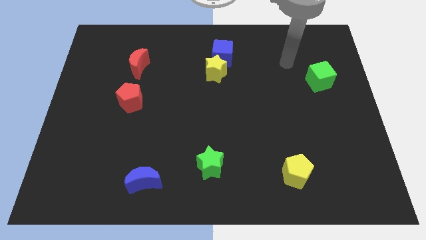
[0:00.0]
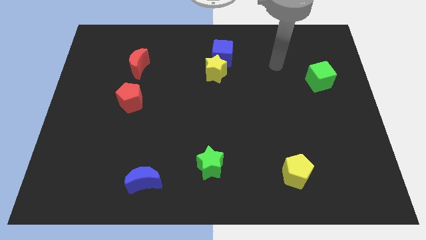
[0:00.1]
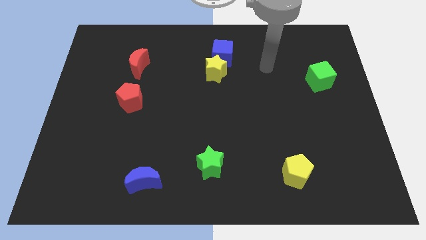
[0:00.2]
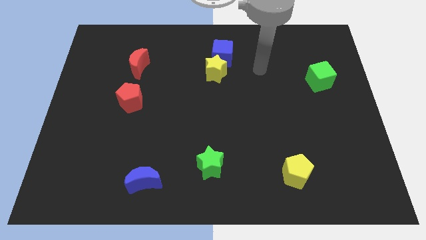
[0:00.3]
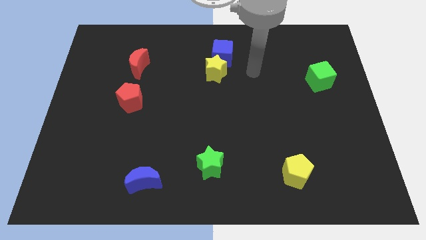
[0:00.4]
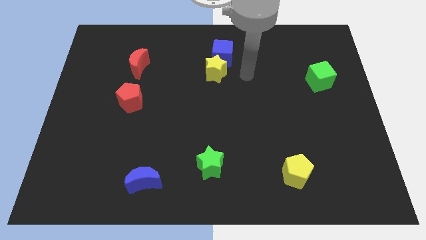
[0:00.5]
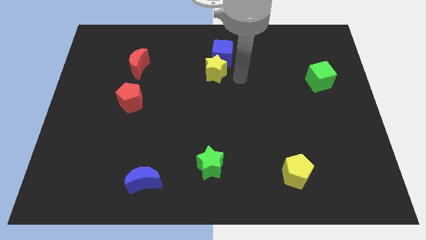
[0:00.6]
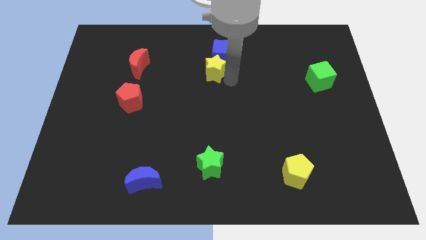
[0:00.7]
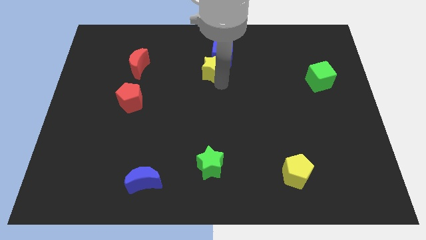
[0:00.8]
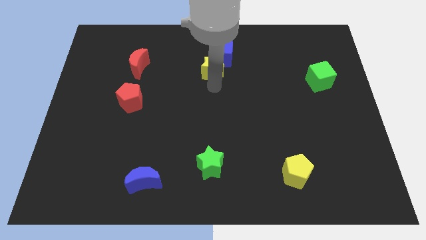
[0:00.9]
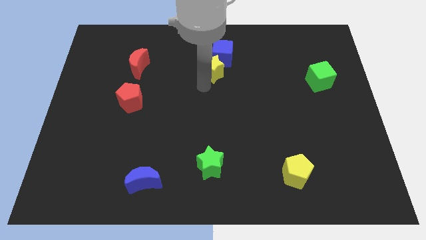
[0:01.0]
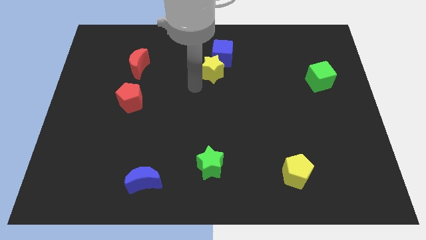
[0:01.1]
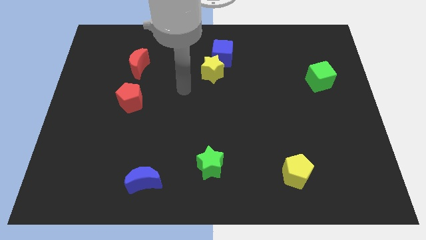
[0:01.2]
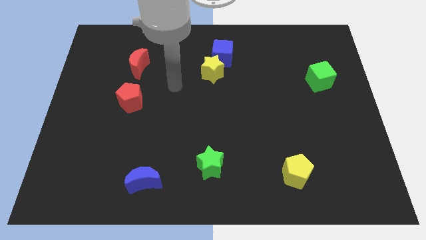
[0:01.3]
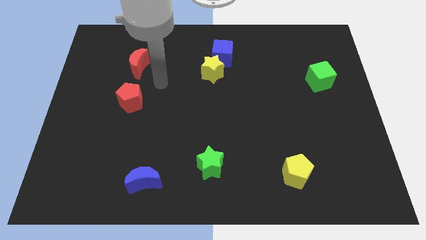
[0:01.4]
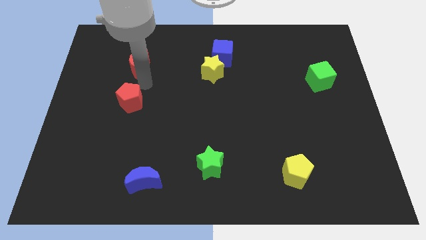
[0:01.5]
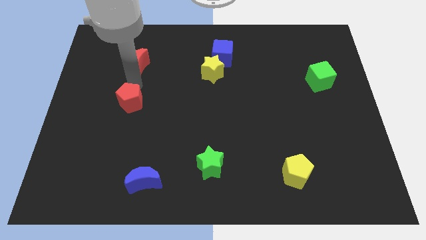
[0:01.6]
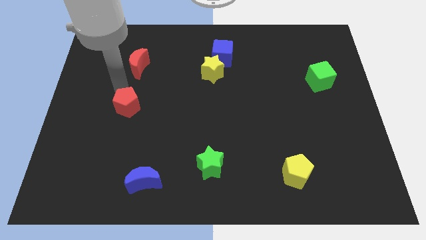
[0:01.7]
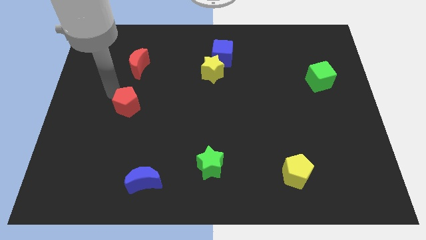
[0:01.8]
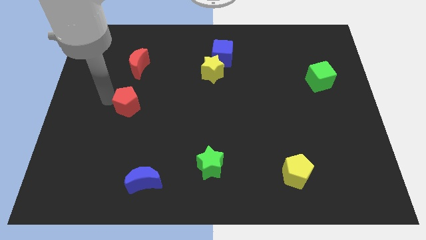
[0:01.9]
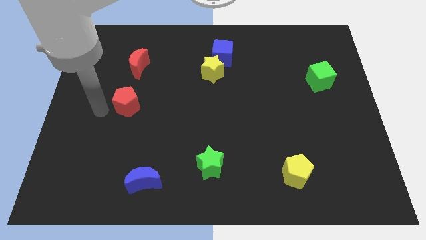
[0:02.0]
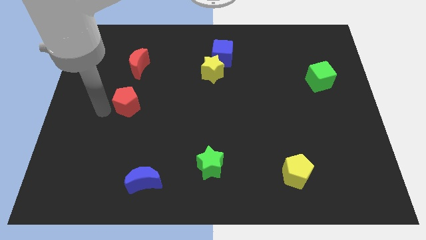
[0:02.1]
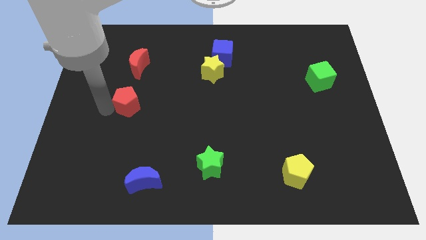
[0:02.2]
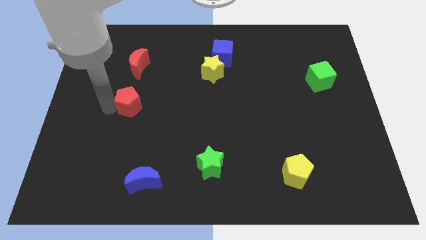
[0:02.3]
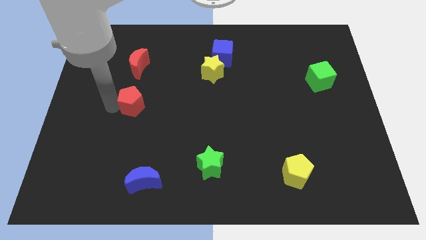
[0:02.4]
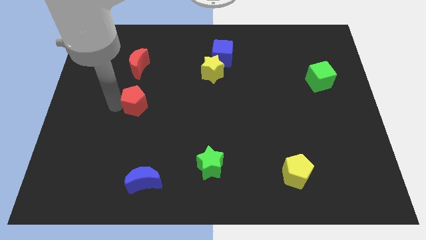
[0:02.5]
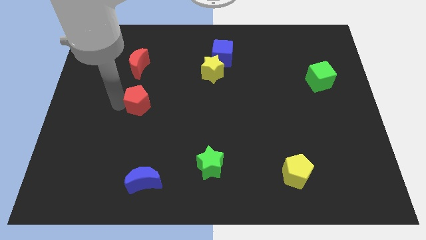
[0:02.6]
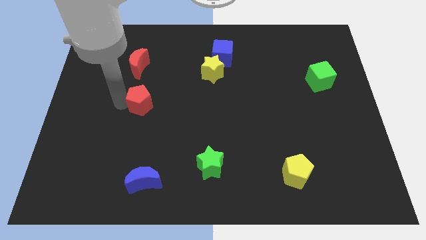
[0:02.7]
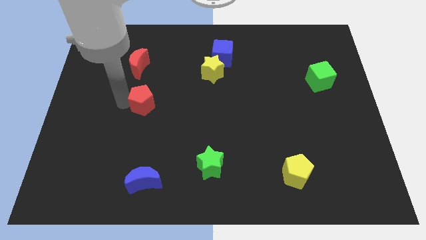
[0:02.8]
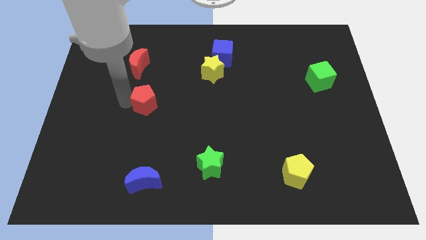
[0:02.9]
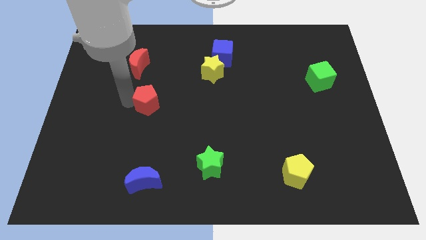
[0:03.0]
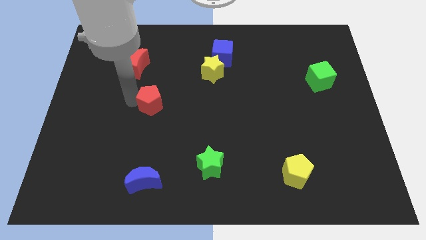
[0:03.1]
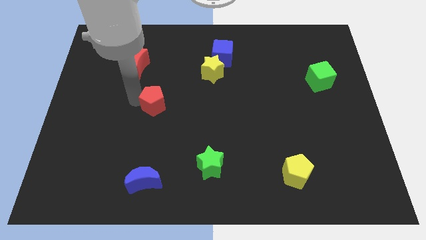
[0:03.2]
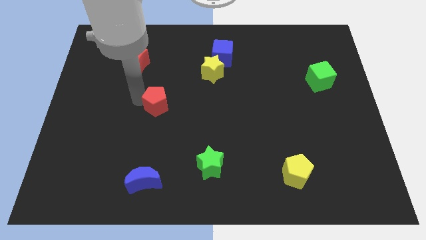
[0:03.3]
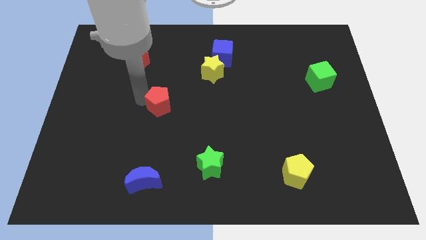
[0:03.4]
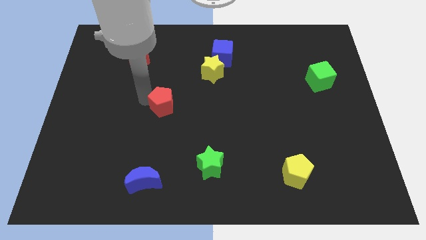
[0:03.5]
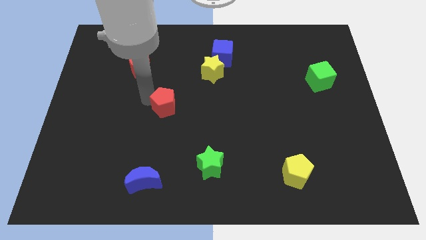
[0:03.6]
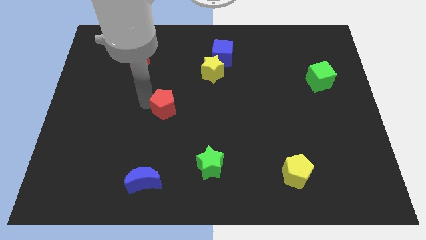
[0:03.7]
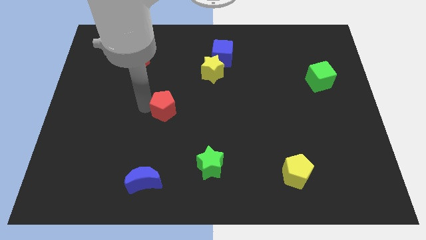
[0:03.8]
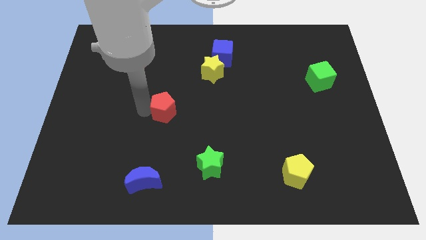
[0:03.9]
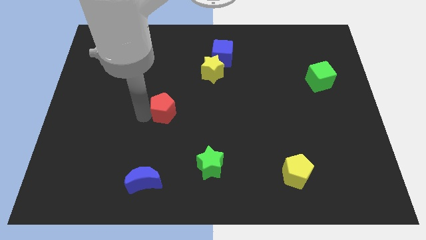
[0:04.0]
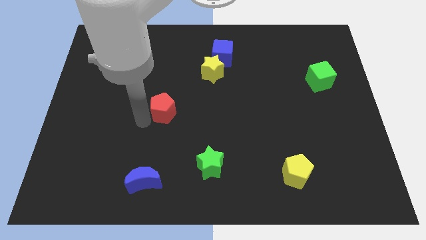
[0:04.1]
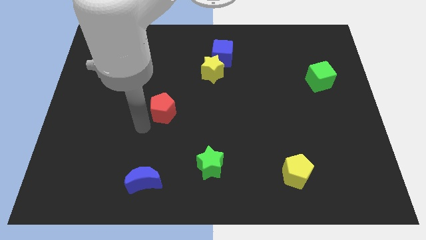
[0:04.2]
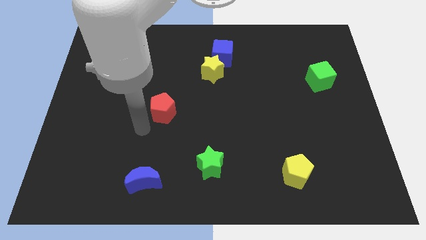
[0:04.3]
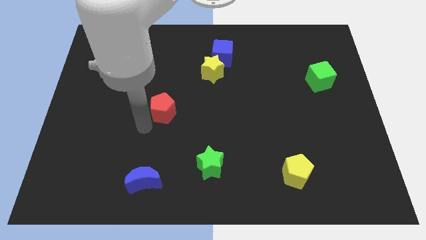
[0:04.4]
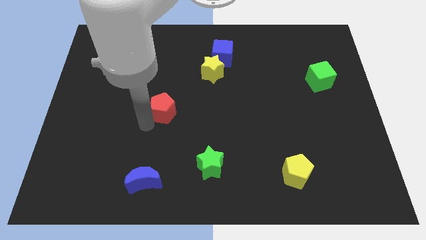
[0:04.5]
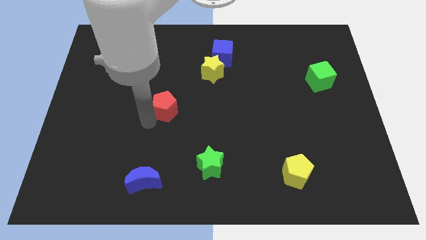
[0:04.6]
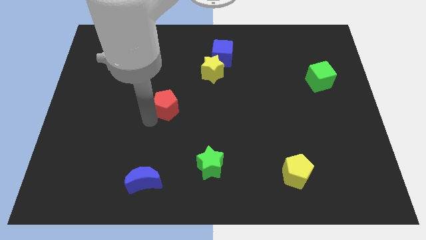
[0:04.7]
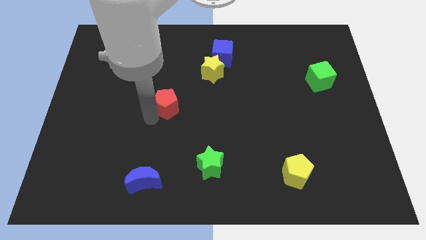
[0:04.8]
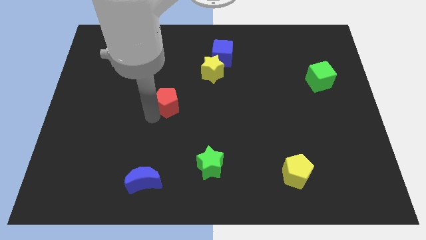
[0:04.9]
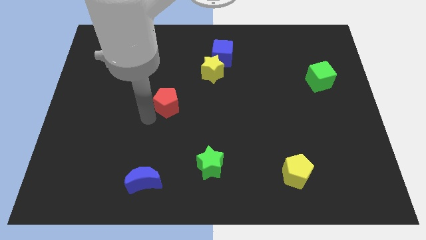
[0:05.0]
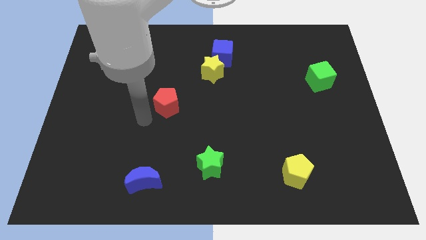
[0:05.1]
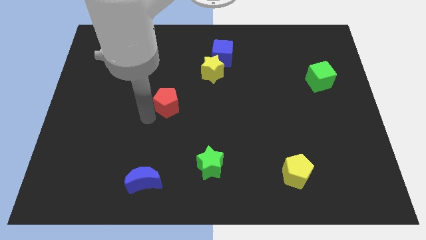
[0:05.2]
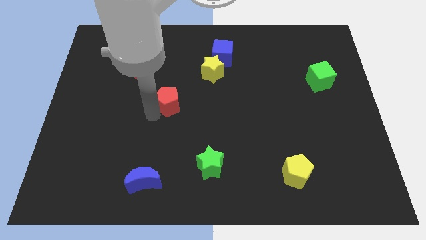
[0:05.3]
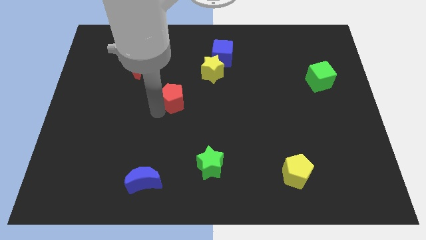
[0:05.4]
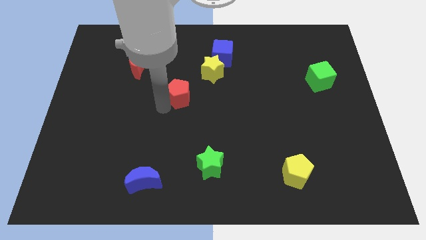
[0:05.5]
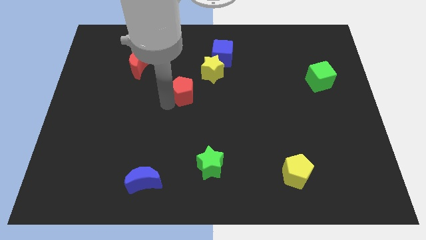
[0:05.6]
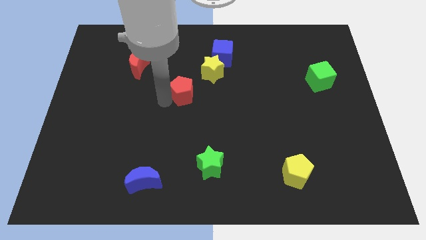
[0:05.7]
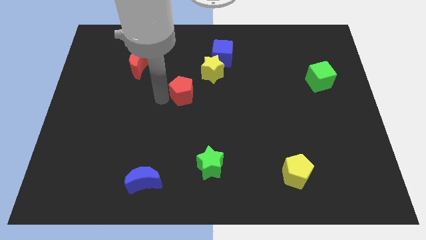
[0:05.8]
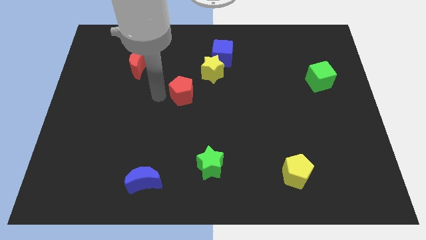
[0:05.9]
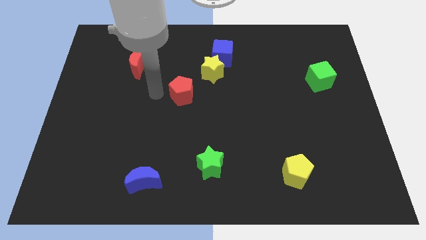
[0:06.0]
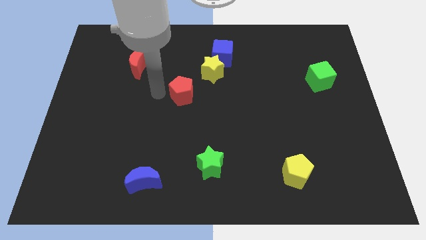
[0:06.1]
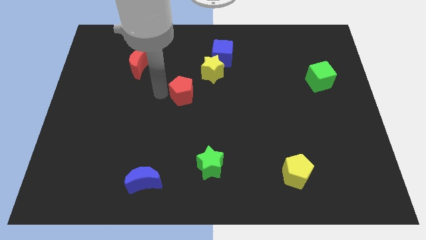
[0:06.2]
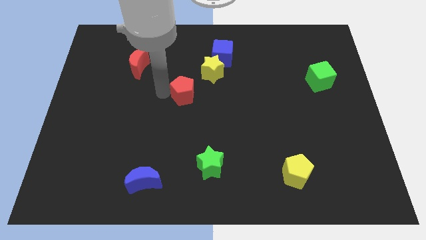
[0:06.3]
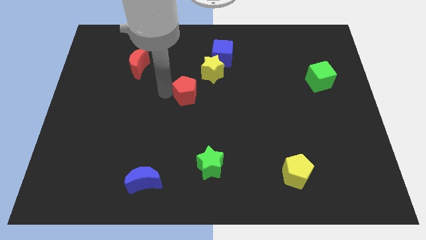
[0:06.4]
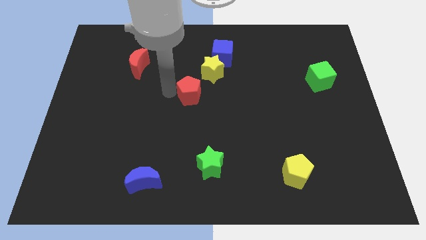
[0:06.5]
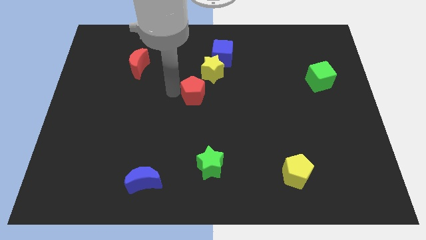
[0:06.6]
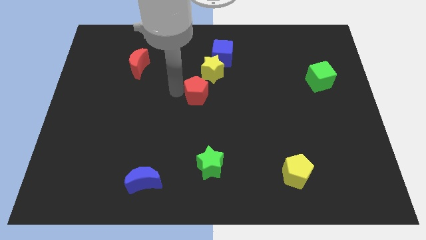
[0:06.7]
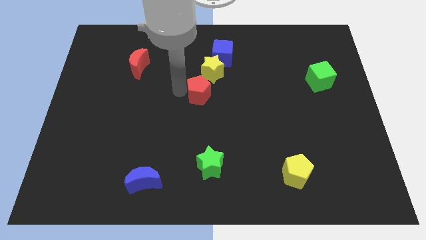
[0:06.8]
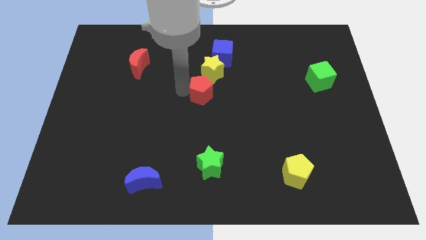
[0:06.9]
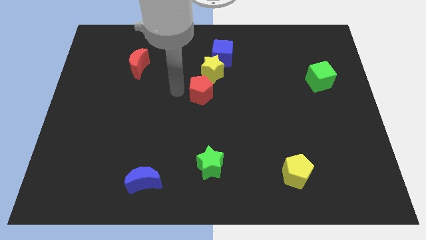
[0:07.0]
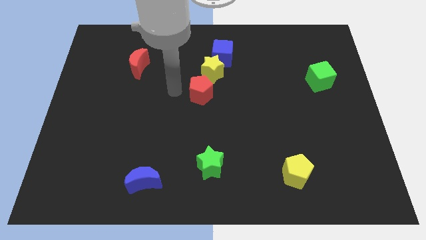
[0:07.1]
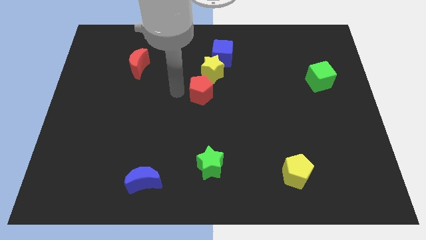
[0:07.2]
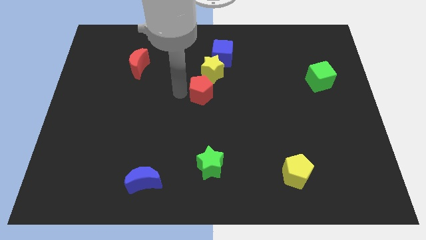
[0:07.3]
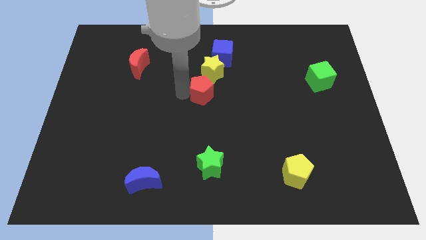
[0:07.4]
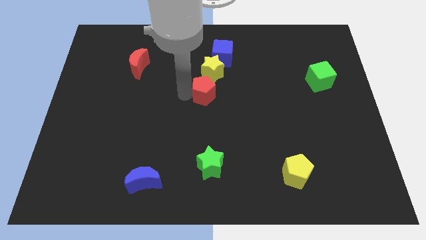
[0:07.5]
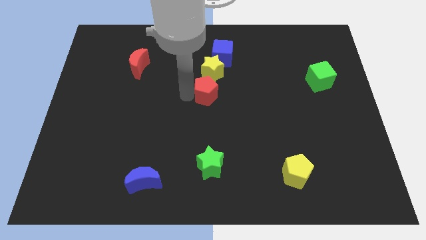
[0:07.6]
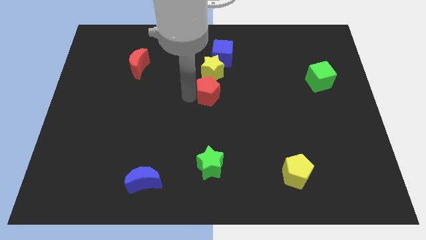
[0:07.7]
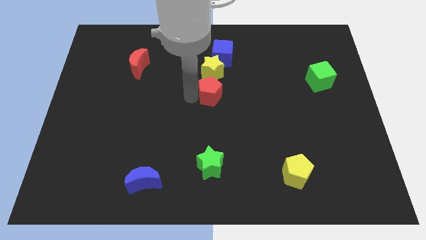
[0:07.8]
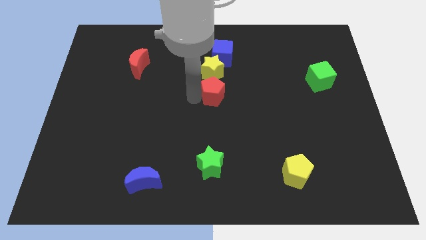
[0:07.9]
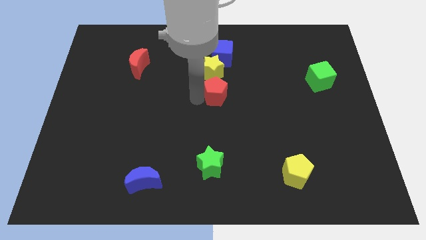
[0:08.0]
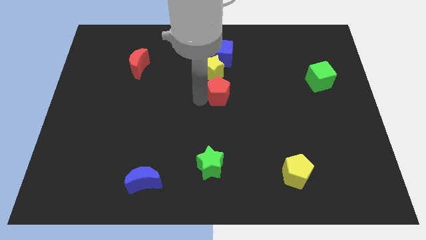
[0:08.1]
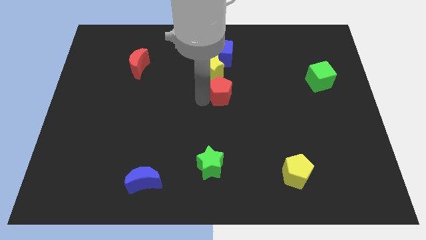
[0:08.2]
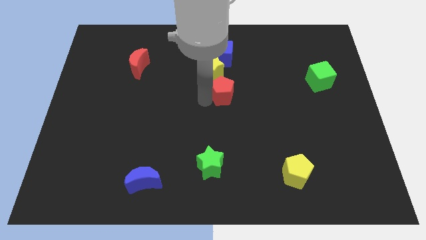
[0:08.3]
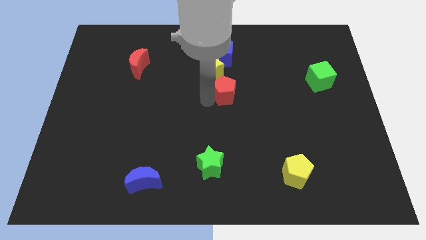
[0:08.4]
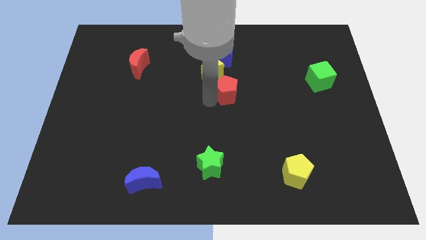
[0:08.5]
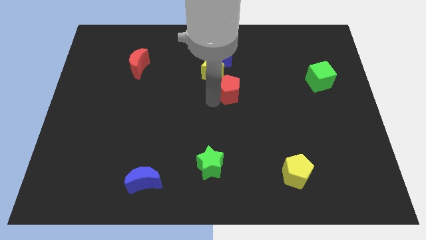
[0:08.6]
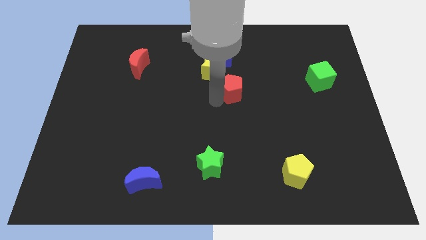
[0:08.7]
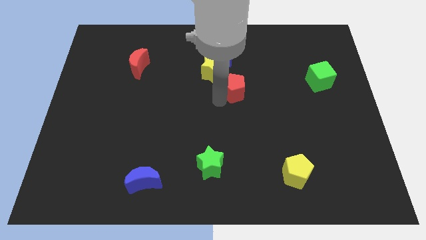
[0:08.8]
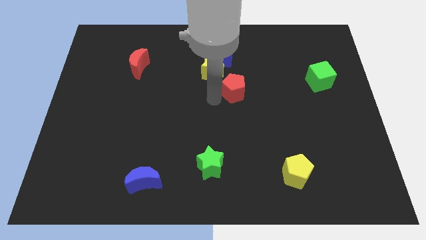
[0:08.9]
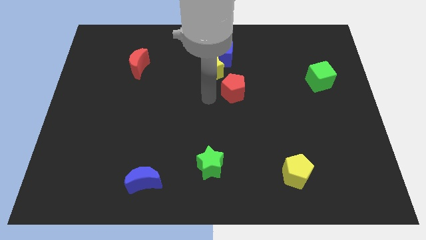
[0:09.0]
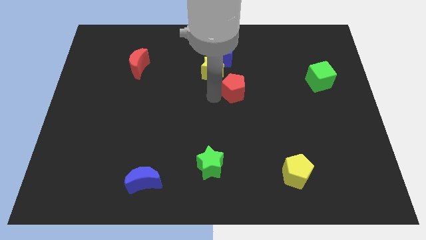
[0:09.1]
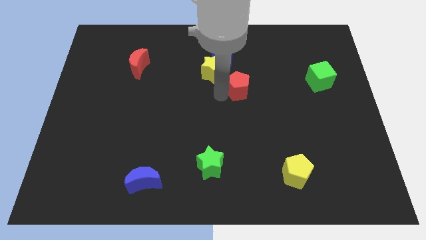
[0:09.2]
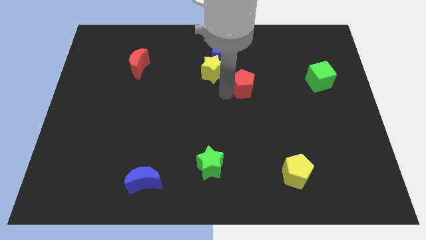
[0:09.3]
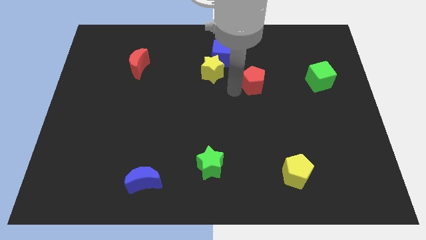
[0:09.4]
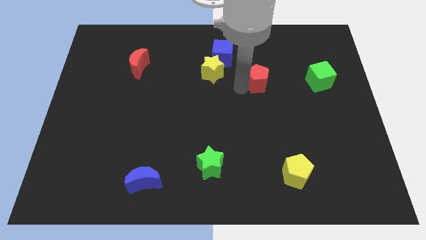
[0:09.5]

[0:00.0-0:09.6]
slide the red pentagon left of the green cube
